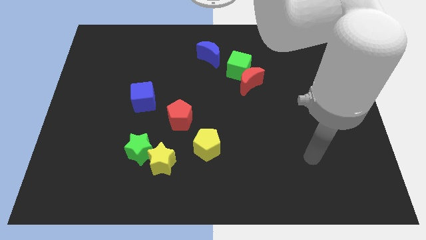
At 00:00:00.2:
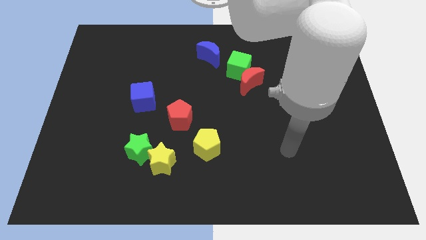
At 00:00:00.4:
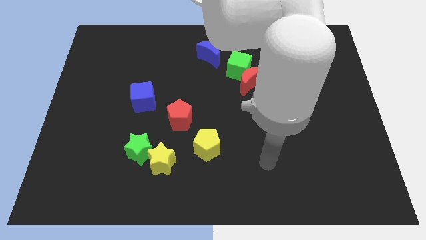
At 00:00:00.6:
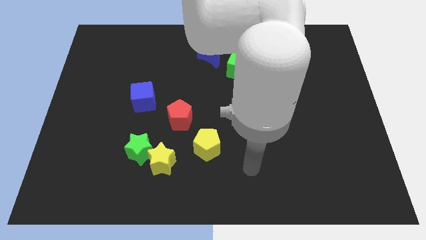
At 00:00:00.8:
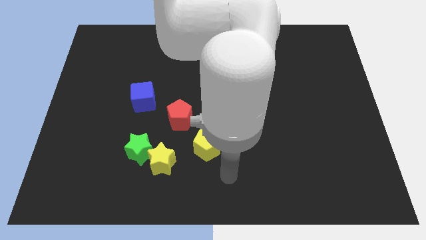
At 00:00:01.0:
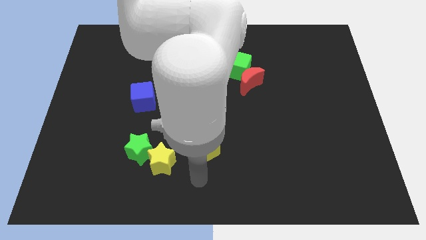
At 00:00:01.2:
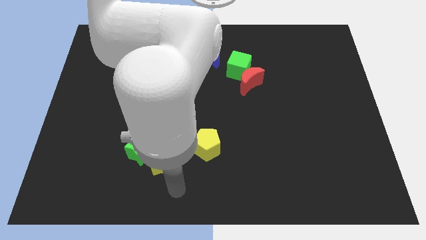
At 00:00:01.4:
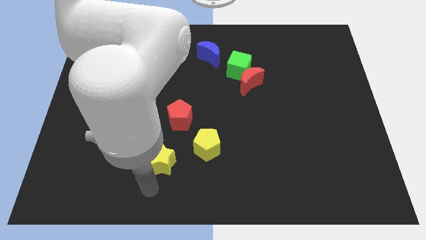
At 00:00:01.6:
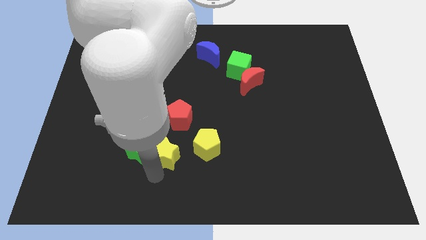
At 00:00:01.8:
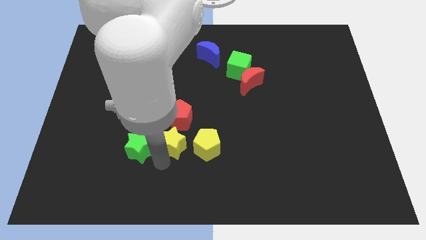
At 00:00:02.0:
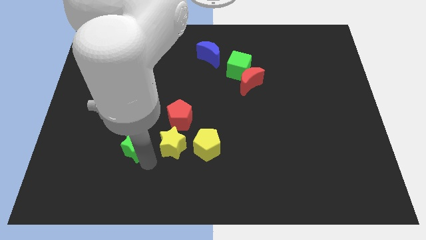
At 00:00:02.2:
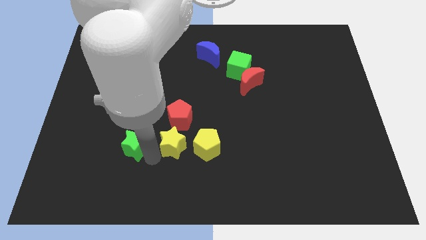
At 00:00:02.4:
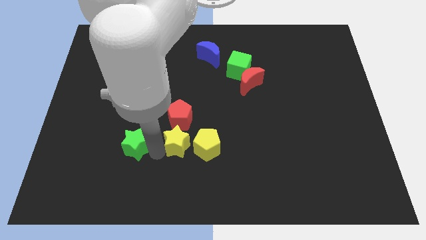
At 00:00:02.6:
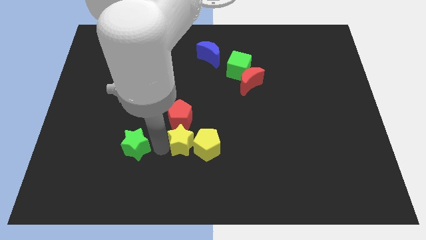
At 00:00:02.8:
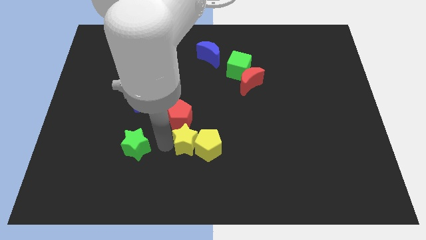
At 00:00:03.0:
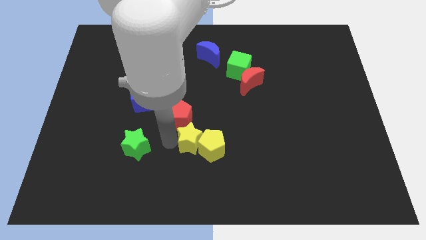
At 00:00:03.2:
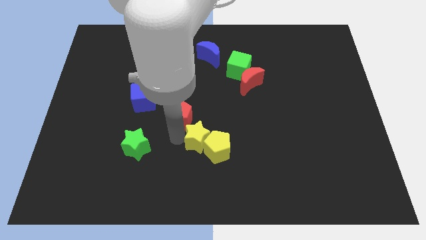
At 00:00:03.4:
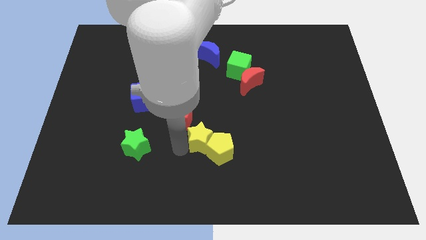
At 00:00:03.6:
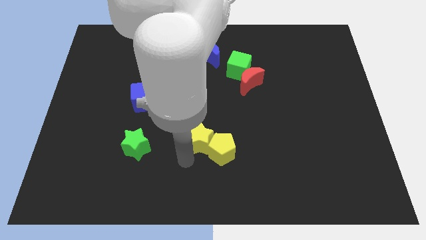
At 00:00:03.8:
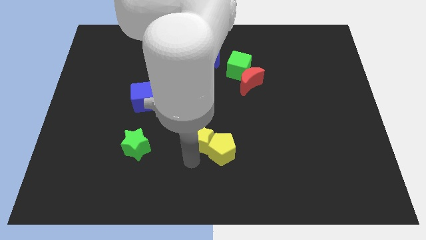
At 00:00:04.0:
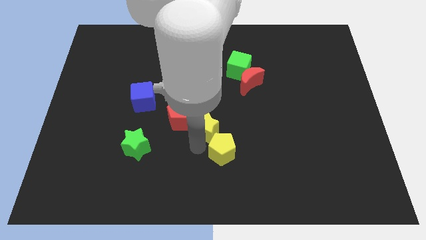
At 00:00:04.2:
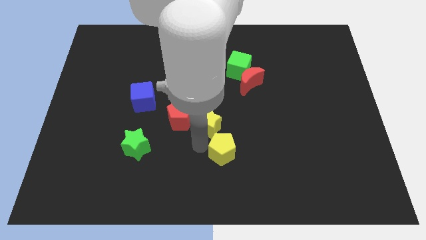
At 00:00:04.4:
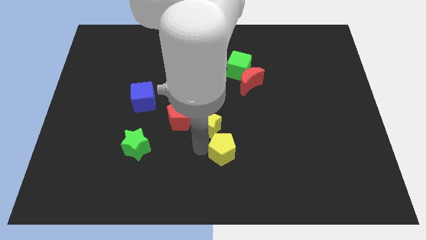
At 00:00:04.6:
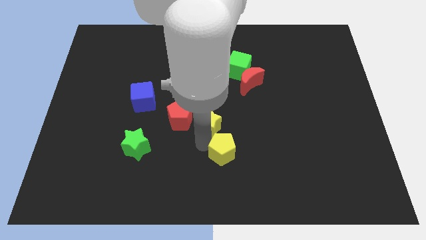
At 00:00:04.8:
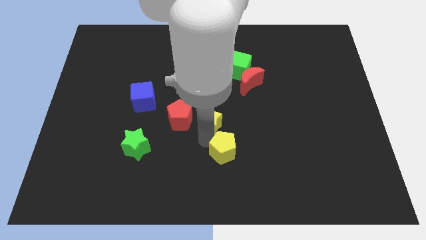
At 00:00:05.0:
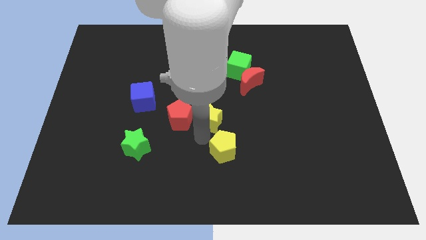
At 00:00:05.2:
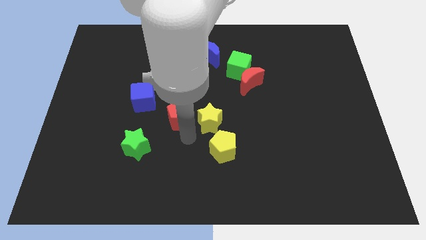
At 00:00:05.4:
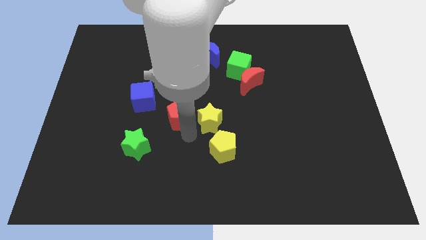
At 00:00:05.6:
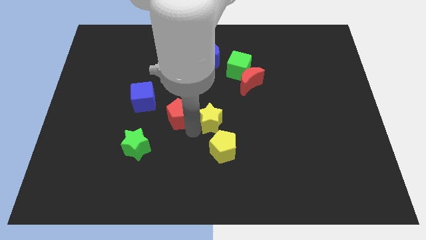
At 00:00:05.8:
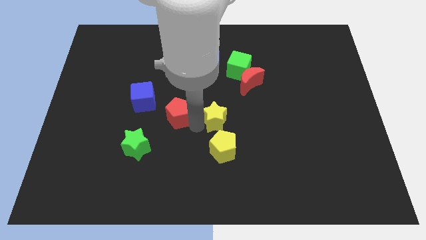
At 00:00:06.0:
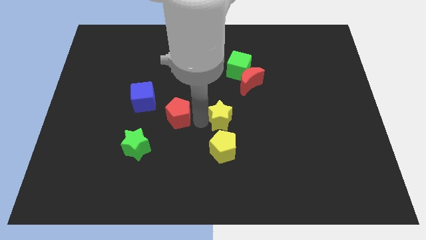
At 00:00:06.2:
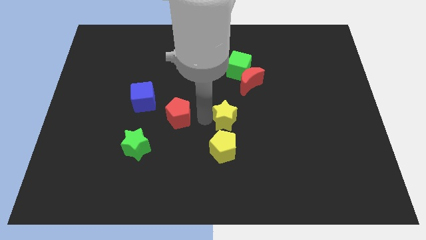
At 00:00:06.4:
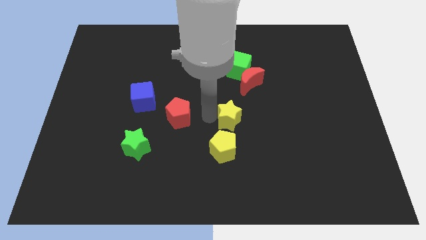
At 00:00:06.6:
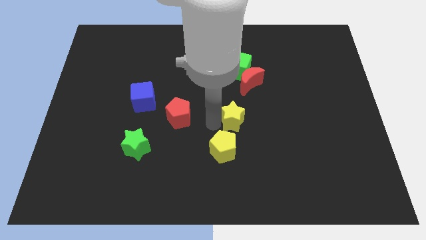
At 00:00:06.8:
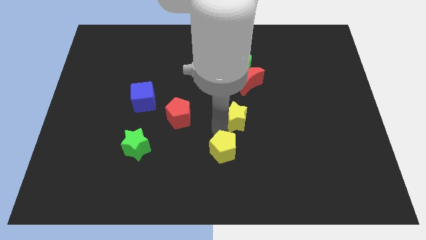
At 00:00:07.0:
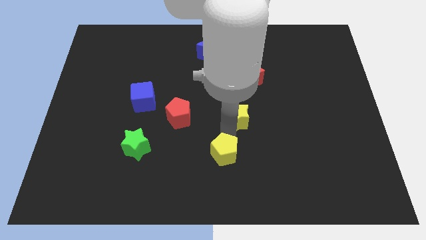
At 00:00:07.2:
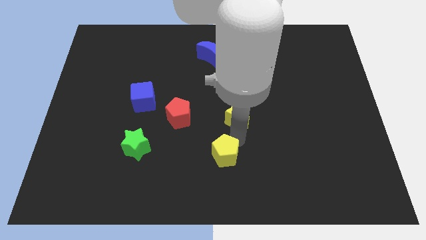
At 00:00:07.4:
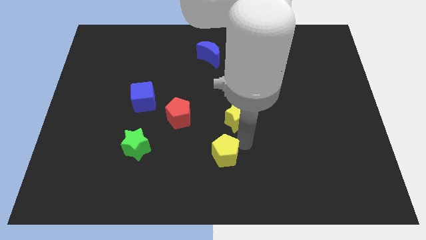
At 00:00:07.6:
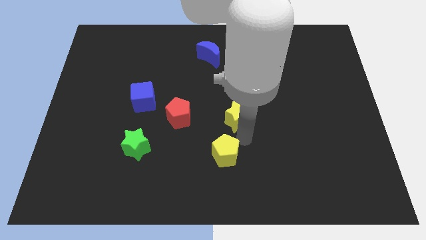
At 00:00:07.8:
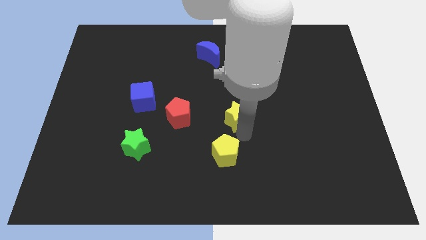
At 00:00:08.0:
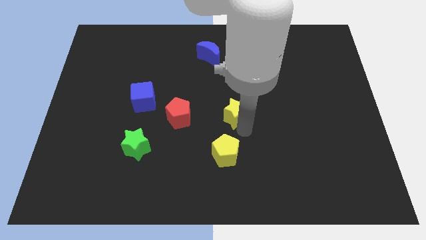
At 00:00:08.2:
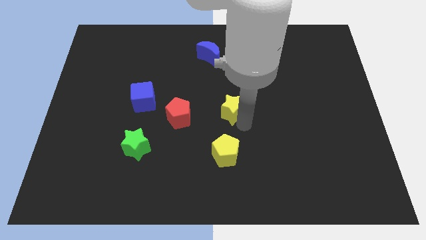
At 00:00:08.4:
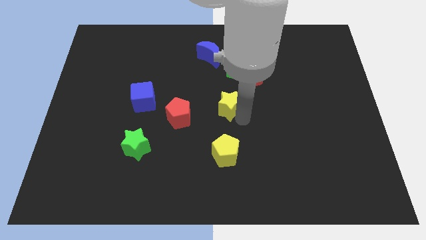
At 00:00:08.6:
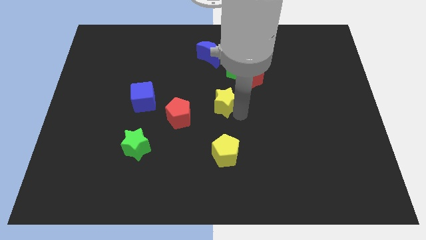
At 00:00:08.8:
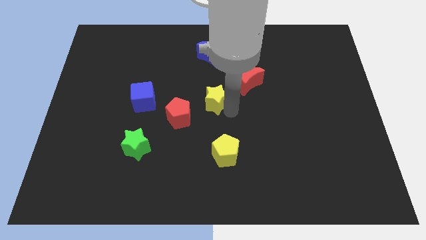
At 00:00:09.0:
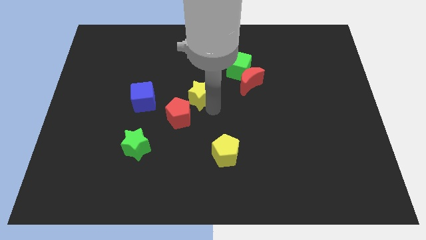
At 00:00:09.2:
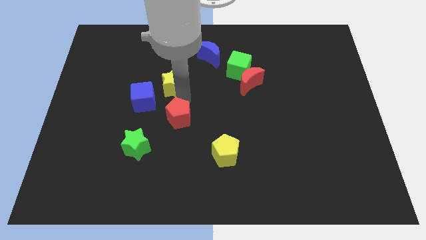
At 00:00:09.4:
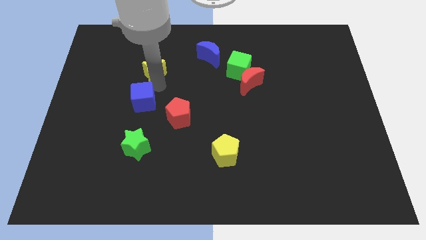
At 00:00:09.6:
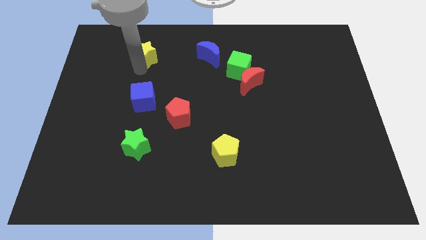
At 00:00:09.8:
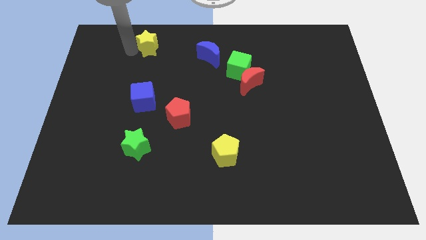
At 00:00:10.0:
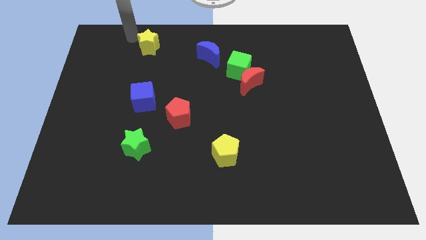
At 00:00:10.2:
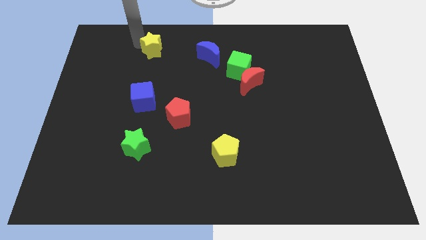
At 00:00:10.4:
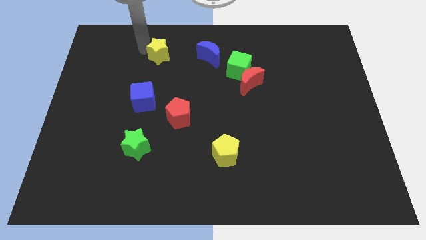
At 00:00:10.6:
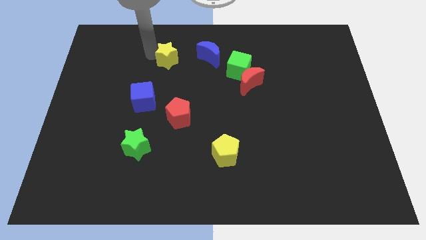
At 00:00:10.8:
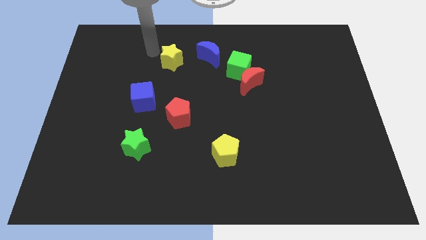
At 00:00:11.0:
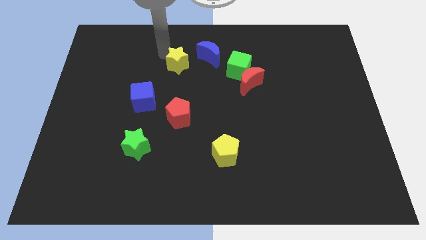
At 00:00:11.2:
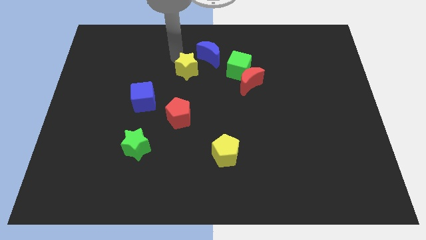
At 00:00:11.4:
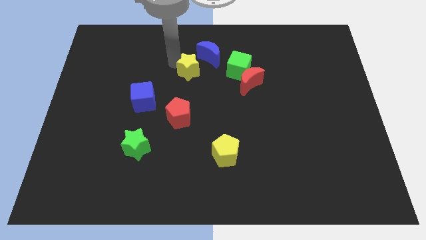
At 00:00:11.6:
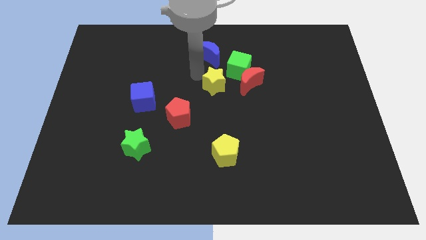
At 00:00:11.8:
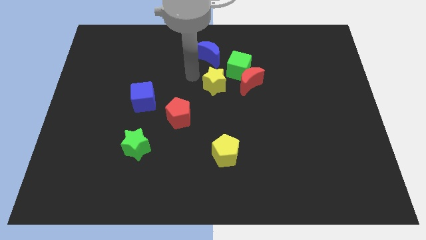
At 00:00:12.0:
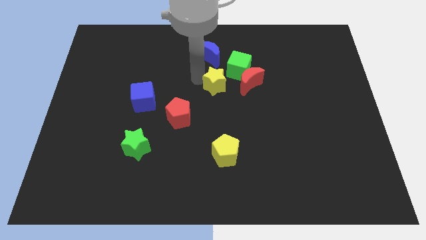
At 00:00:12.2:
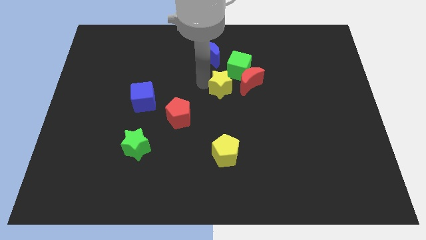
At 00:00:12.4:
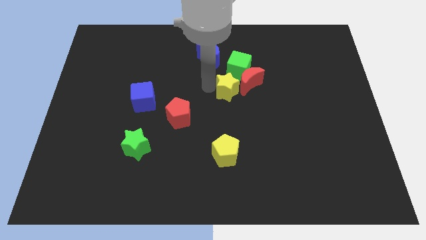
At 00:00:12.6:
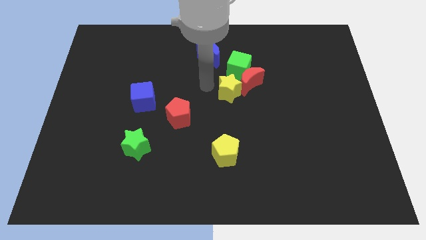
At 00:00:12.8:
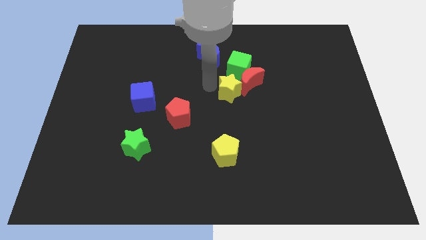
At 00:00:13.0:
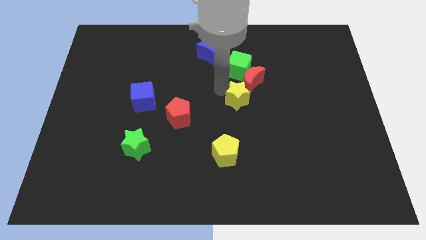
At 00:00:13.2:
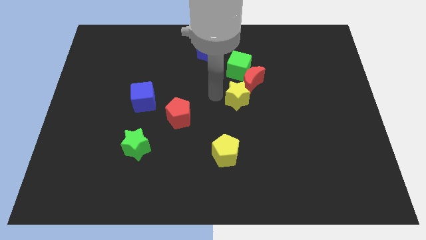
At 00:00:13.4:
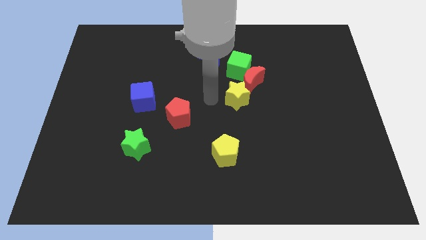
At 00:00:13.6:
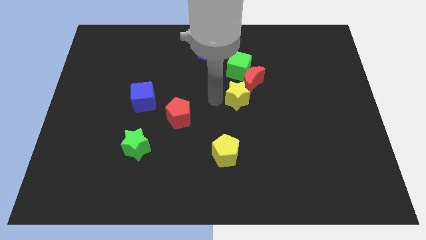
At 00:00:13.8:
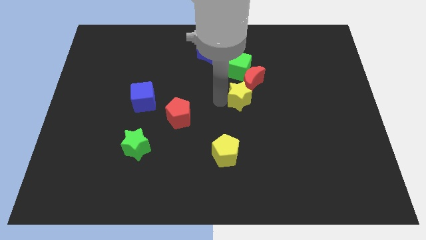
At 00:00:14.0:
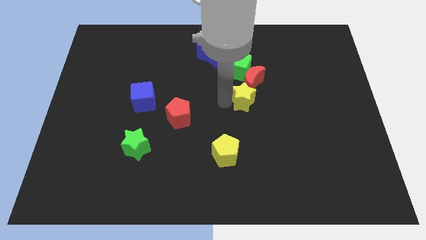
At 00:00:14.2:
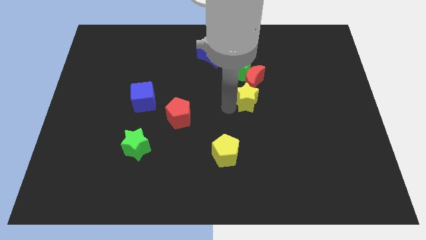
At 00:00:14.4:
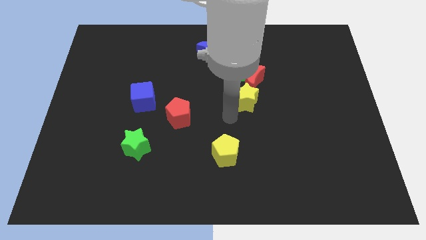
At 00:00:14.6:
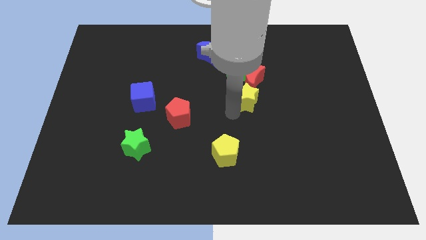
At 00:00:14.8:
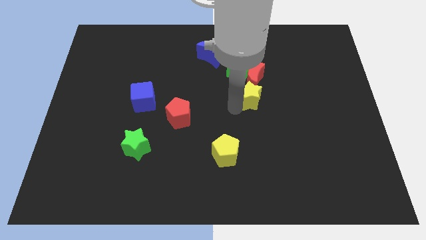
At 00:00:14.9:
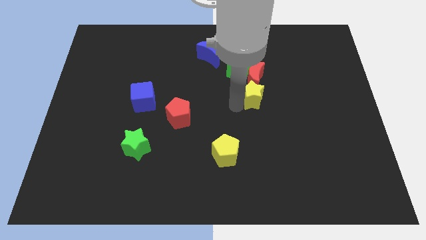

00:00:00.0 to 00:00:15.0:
slide the yellow star diagonally down and to the right of the green cube
